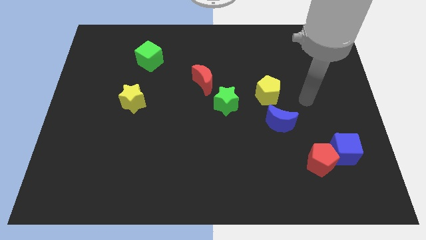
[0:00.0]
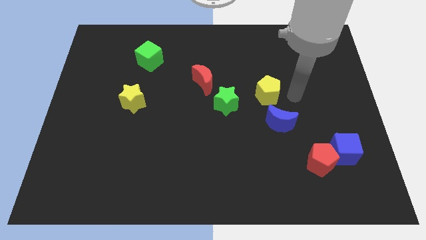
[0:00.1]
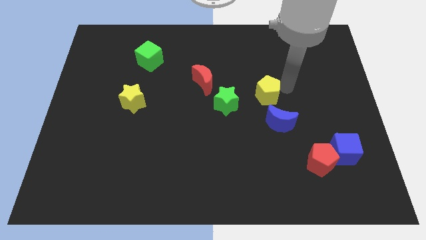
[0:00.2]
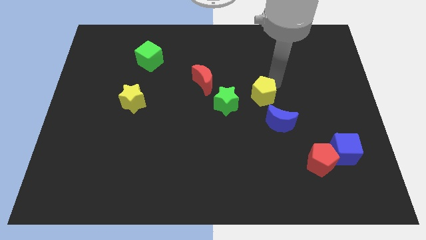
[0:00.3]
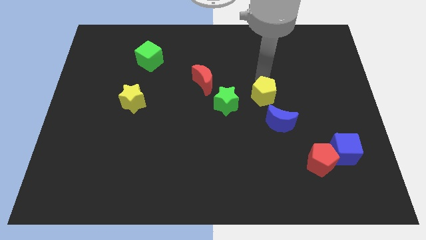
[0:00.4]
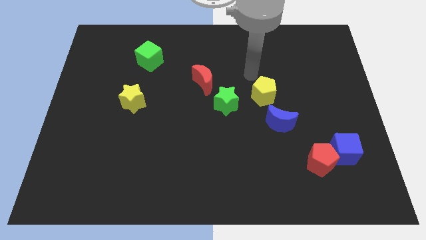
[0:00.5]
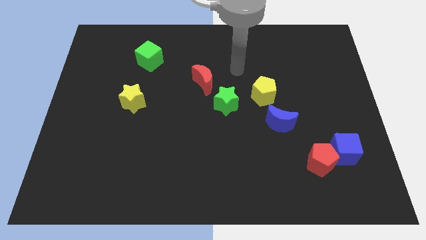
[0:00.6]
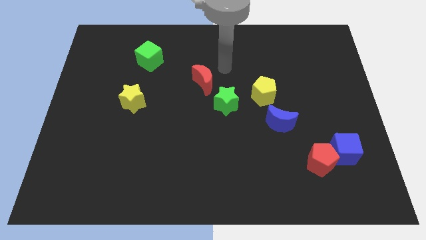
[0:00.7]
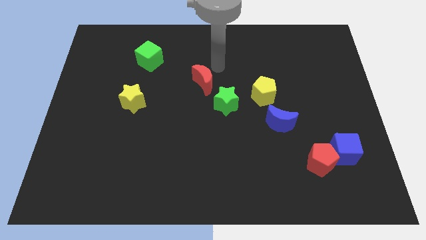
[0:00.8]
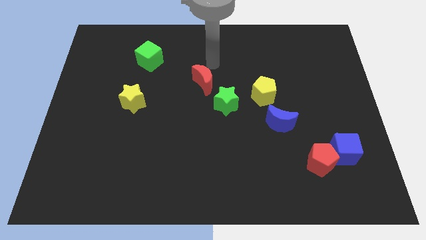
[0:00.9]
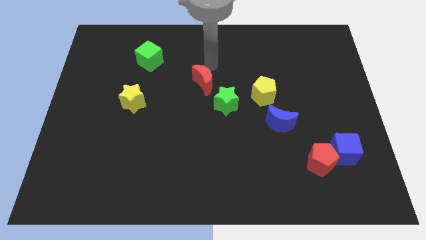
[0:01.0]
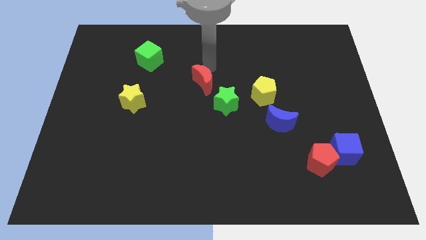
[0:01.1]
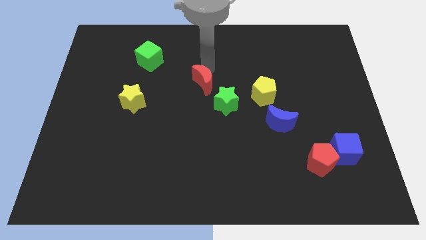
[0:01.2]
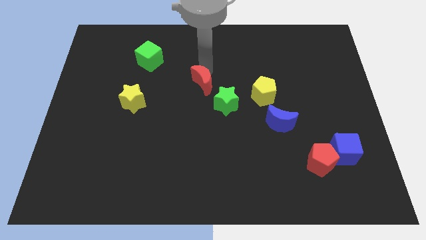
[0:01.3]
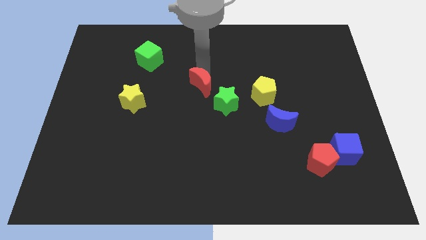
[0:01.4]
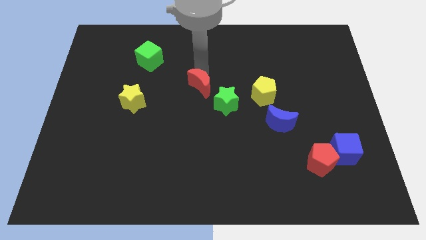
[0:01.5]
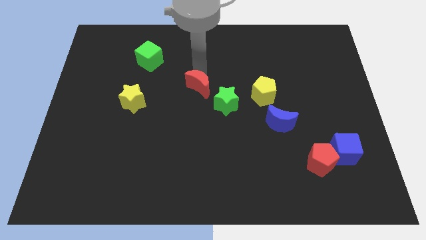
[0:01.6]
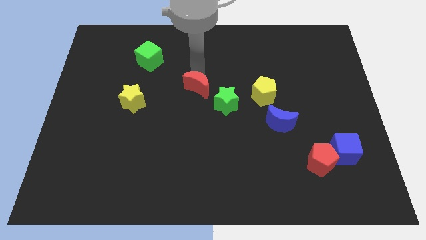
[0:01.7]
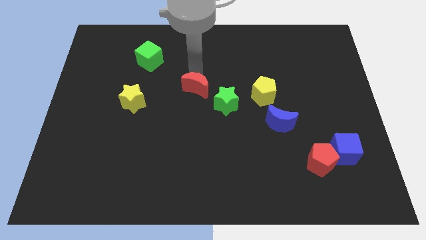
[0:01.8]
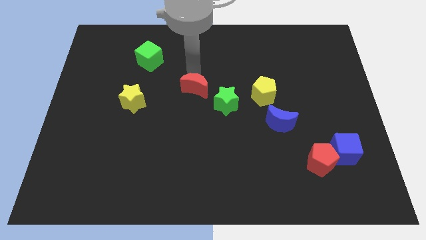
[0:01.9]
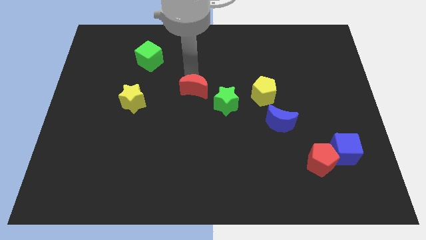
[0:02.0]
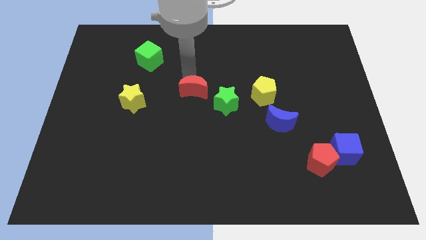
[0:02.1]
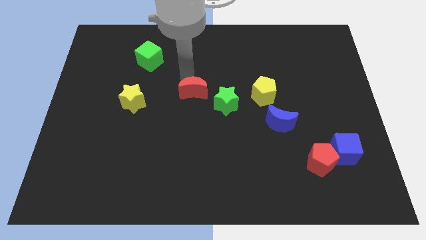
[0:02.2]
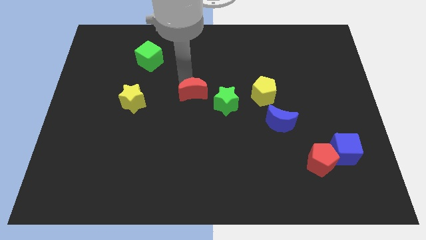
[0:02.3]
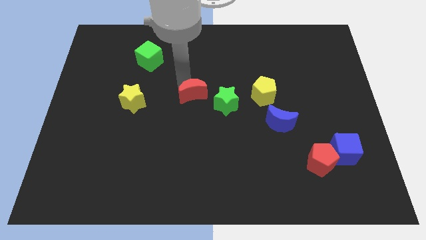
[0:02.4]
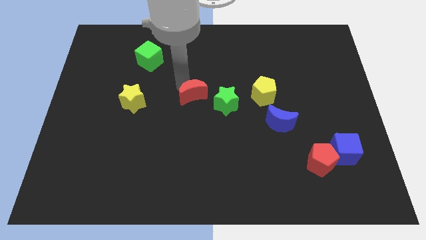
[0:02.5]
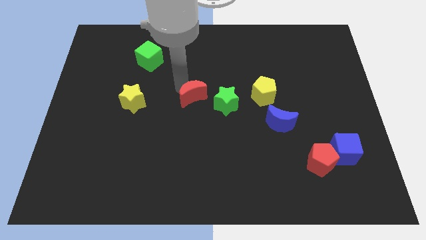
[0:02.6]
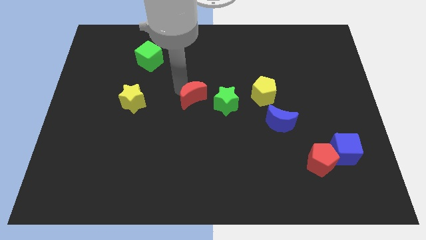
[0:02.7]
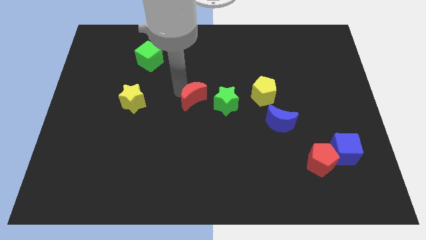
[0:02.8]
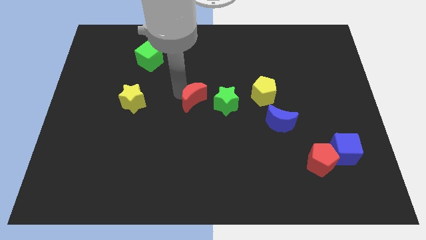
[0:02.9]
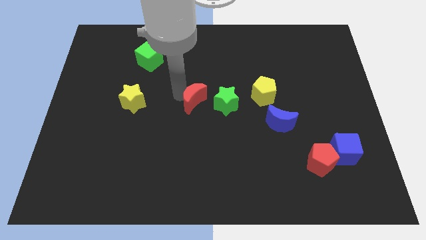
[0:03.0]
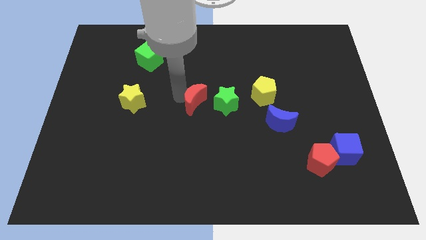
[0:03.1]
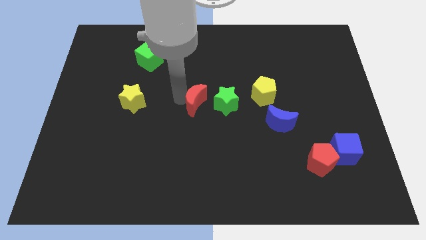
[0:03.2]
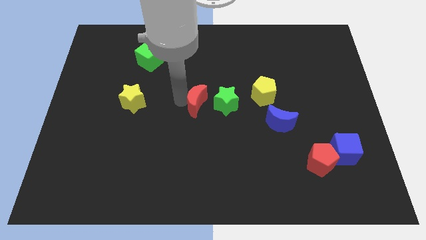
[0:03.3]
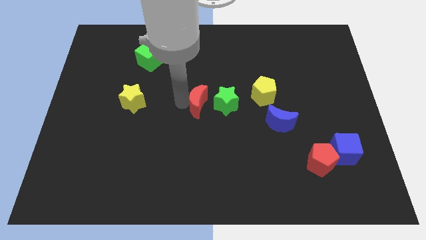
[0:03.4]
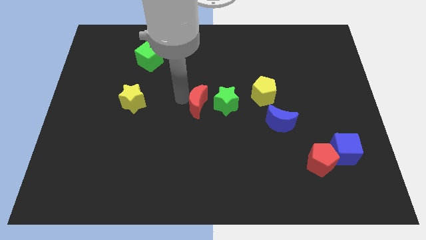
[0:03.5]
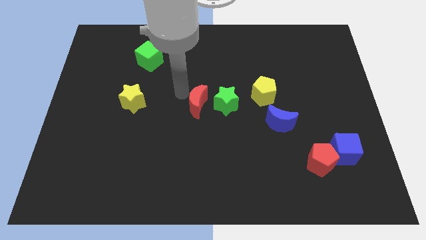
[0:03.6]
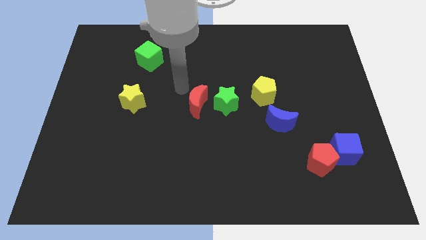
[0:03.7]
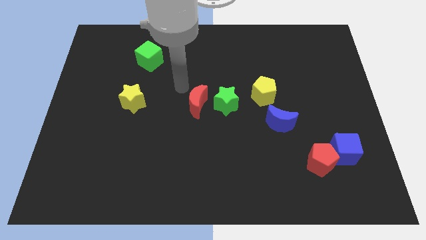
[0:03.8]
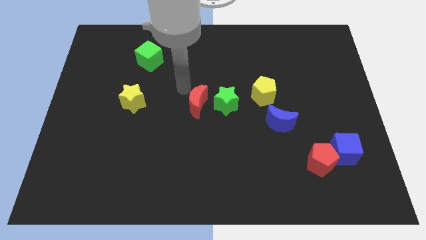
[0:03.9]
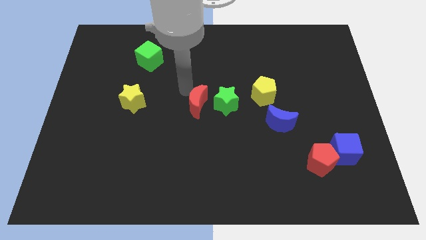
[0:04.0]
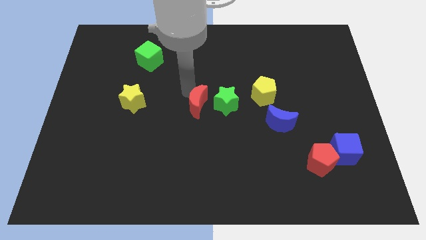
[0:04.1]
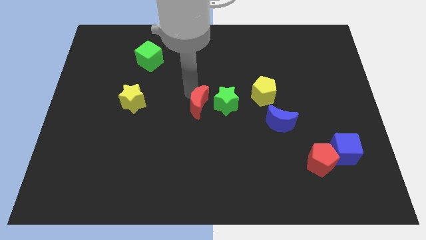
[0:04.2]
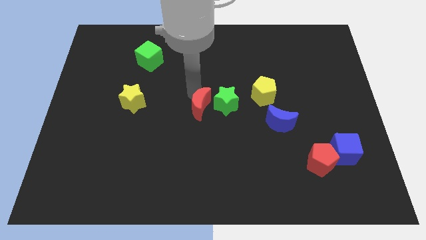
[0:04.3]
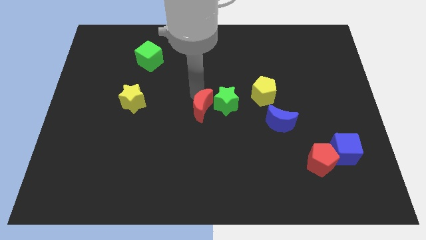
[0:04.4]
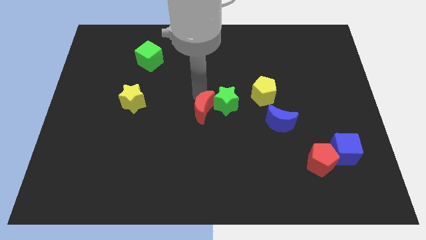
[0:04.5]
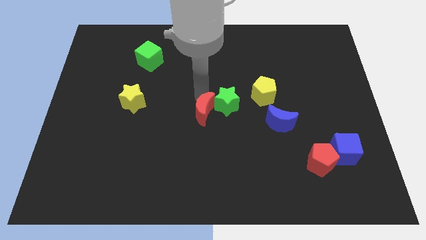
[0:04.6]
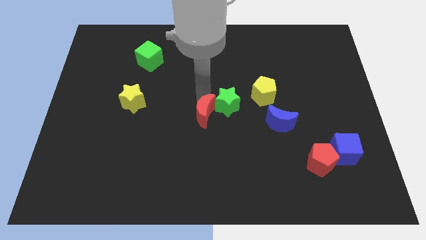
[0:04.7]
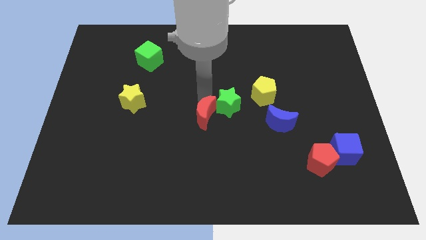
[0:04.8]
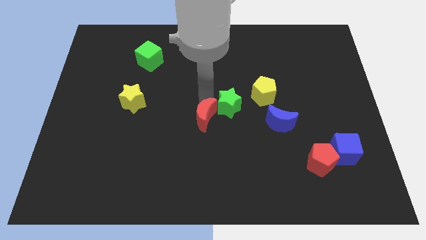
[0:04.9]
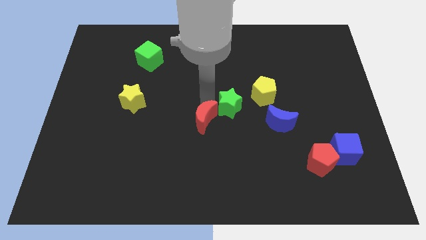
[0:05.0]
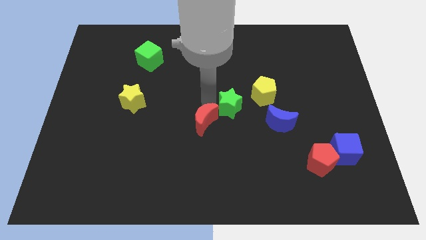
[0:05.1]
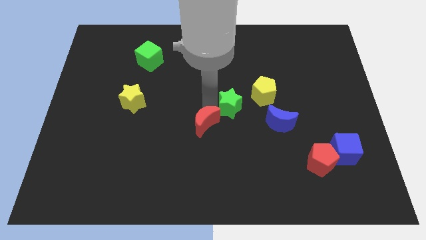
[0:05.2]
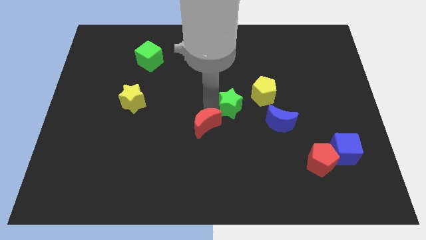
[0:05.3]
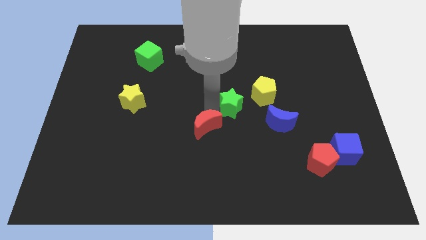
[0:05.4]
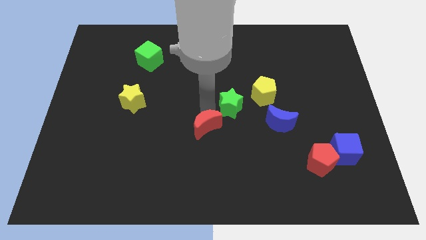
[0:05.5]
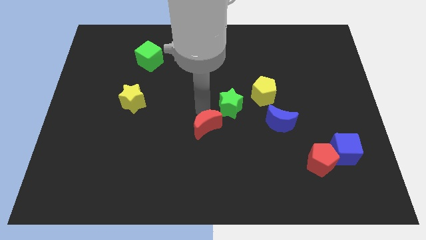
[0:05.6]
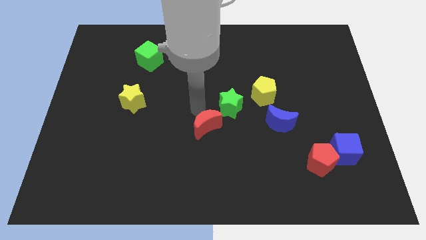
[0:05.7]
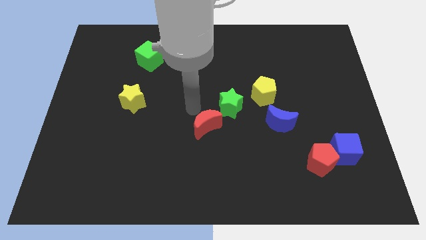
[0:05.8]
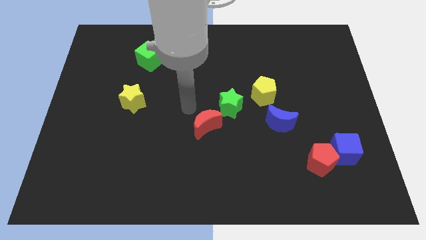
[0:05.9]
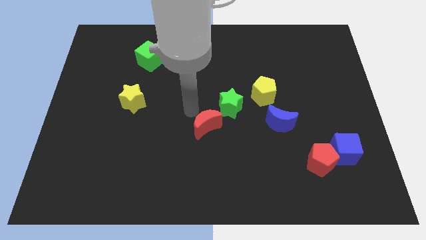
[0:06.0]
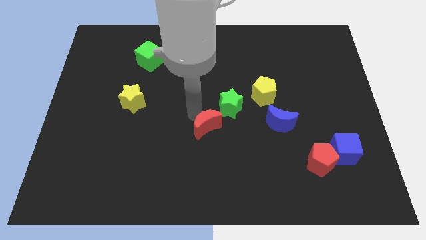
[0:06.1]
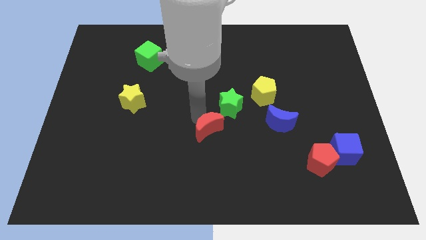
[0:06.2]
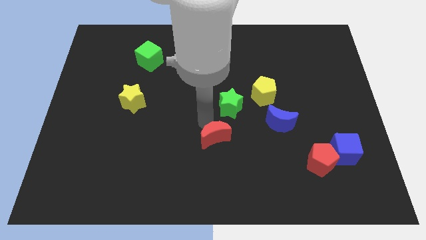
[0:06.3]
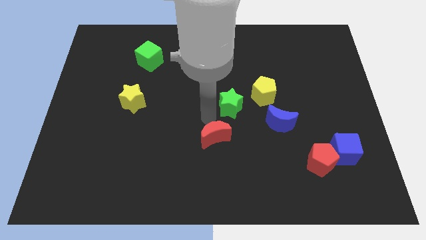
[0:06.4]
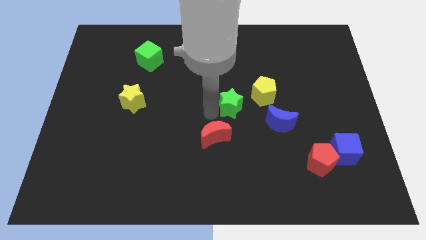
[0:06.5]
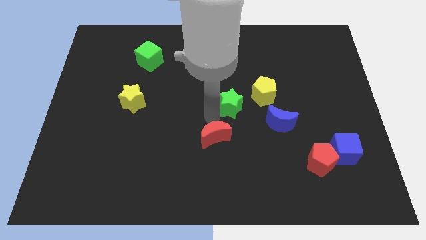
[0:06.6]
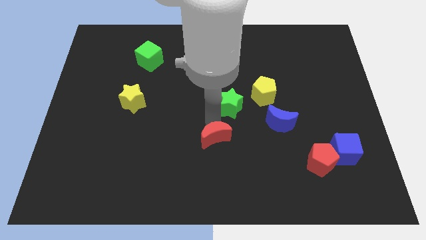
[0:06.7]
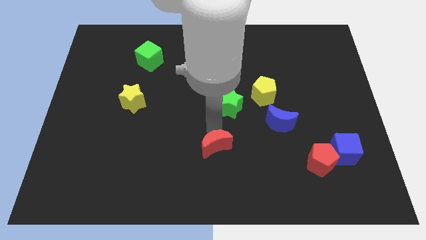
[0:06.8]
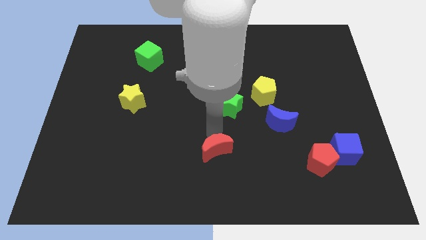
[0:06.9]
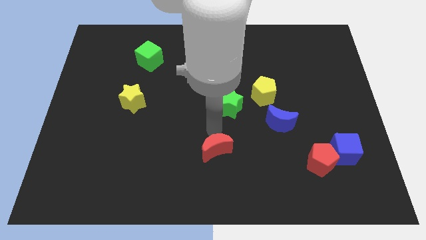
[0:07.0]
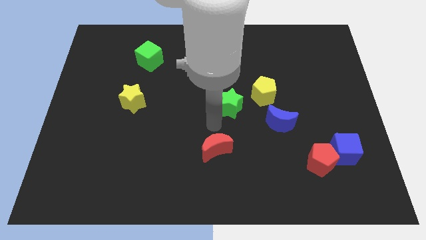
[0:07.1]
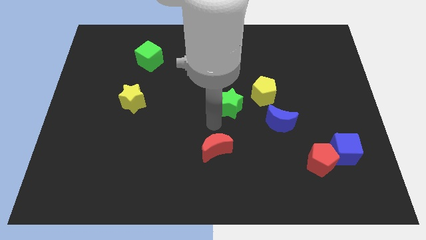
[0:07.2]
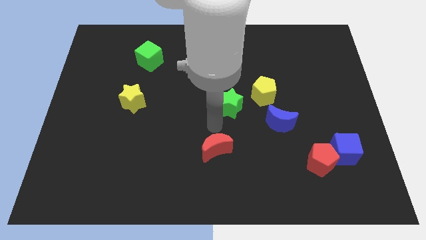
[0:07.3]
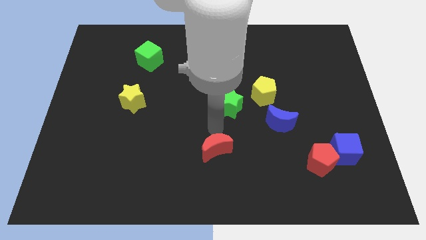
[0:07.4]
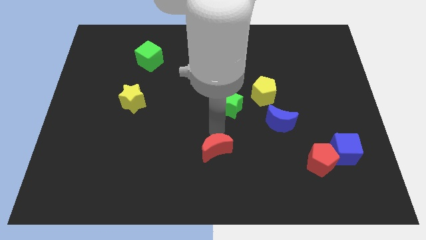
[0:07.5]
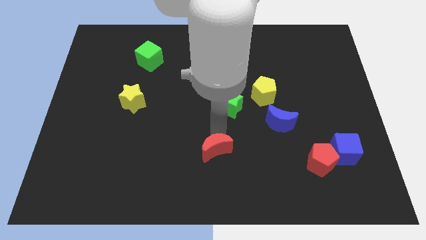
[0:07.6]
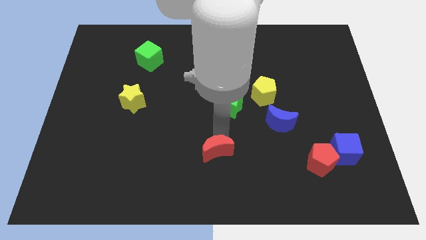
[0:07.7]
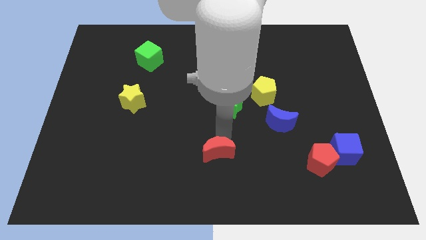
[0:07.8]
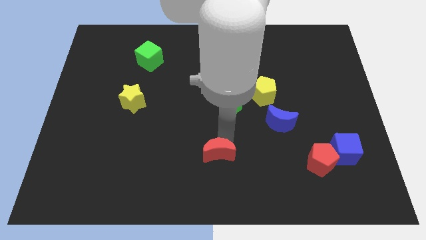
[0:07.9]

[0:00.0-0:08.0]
put the red moon to the bottom side
